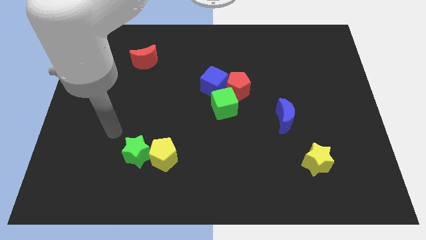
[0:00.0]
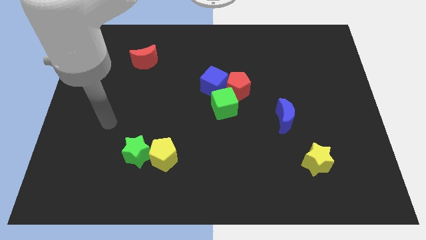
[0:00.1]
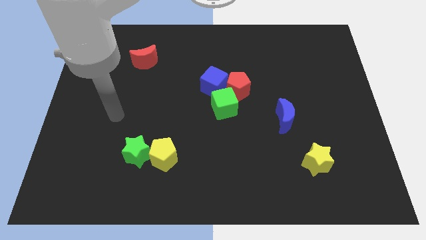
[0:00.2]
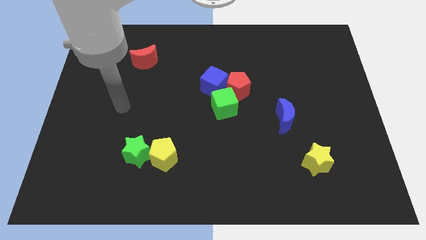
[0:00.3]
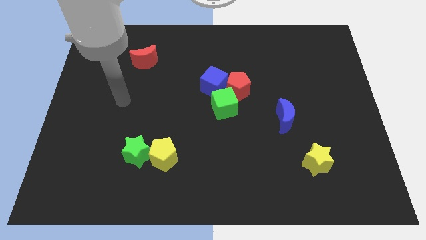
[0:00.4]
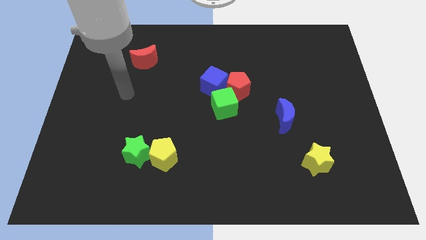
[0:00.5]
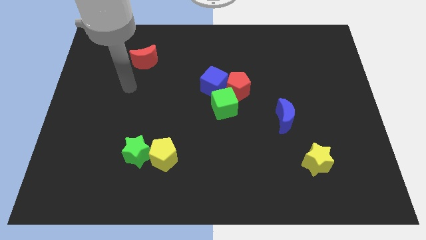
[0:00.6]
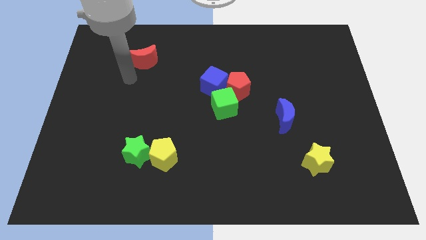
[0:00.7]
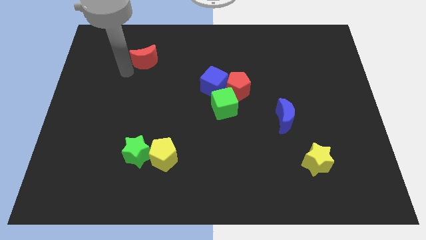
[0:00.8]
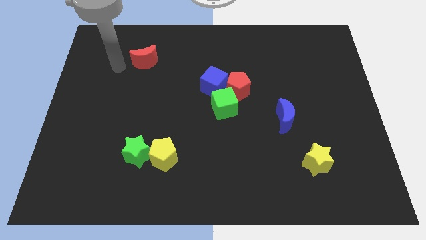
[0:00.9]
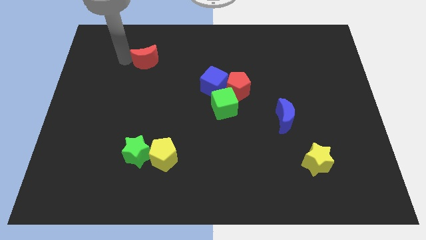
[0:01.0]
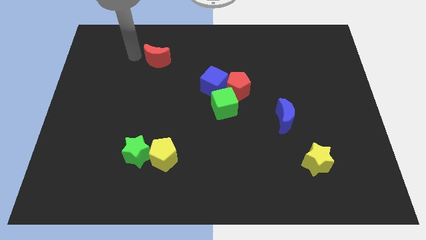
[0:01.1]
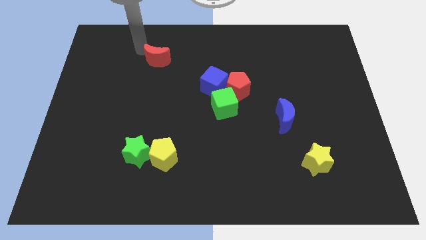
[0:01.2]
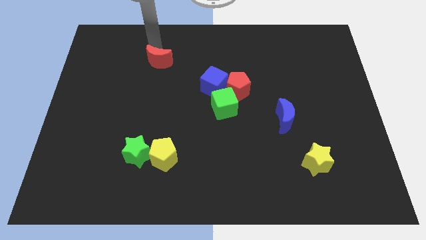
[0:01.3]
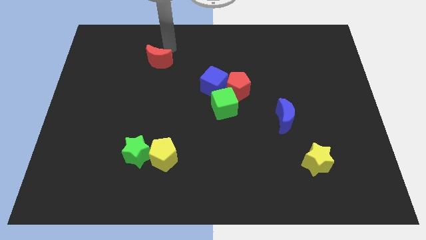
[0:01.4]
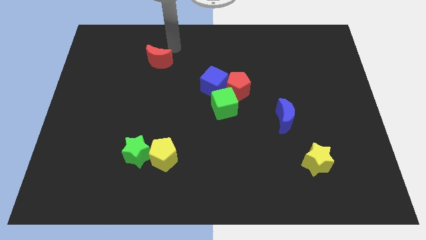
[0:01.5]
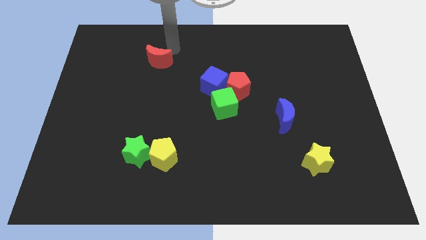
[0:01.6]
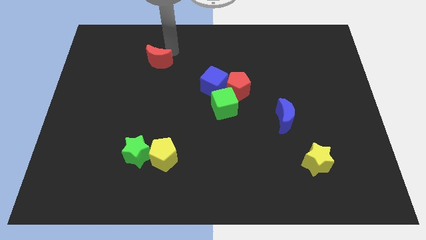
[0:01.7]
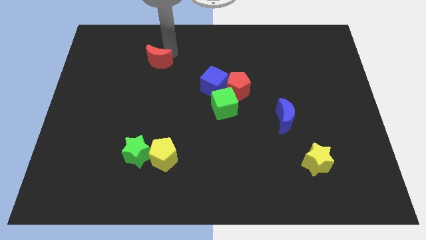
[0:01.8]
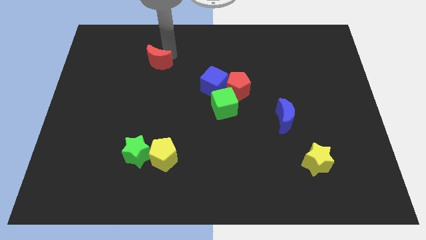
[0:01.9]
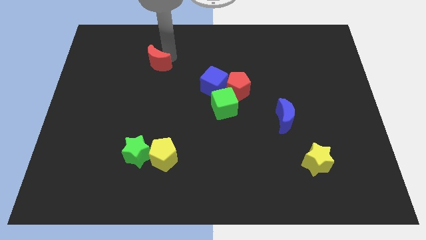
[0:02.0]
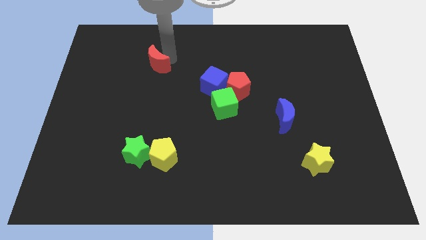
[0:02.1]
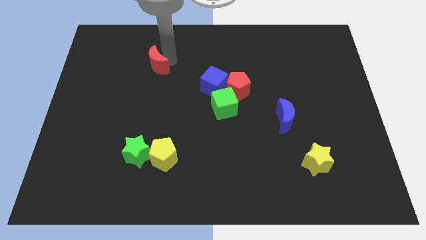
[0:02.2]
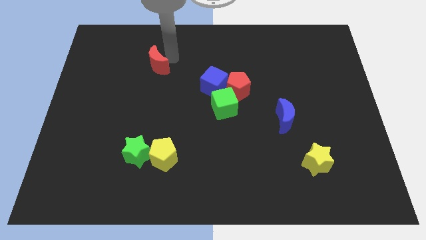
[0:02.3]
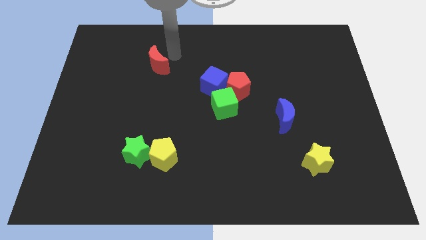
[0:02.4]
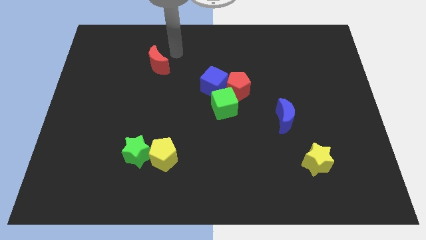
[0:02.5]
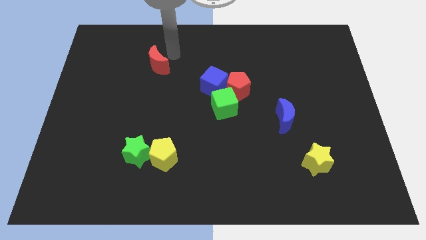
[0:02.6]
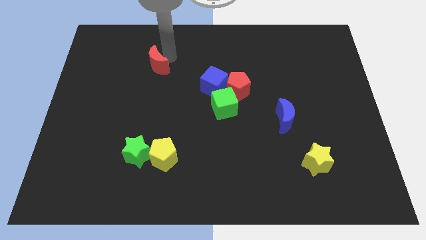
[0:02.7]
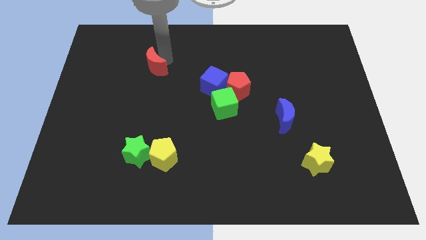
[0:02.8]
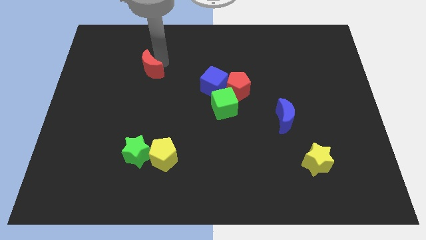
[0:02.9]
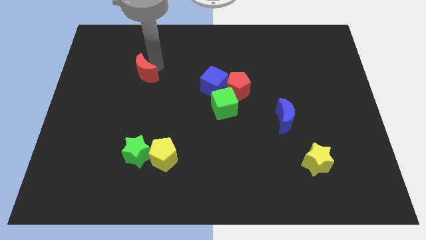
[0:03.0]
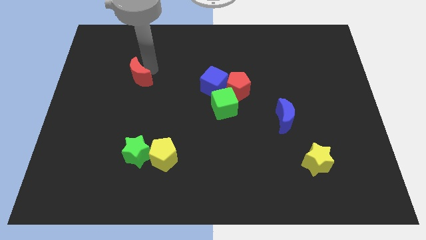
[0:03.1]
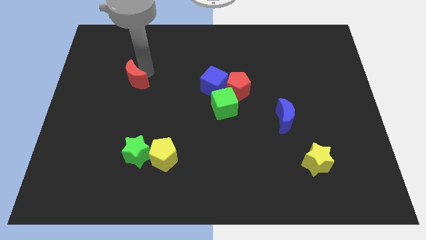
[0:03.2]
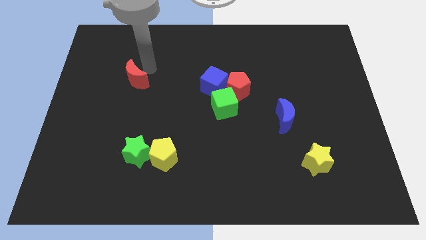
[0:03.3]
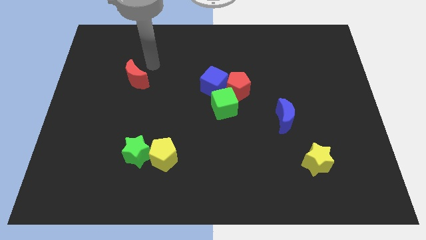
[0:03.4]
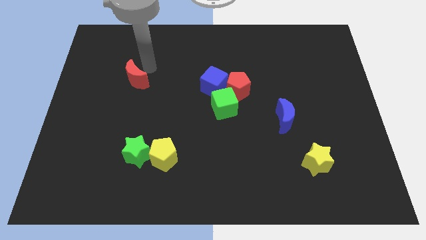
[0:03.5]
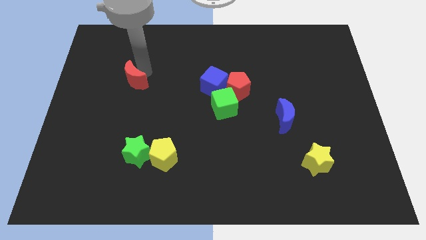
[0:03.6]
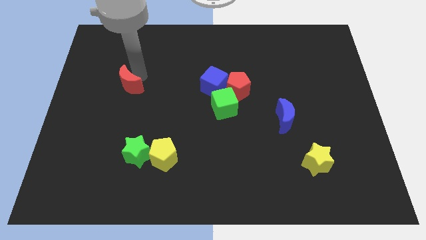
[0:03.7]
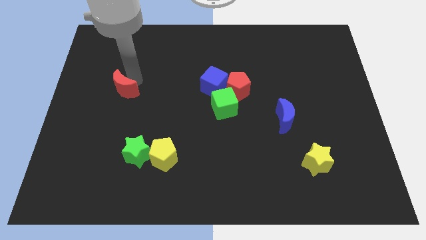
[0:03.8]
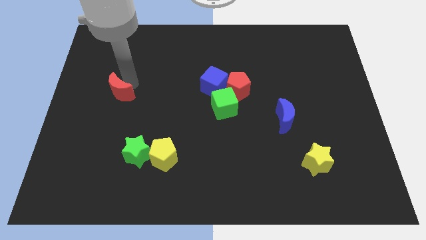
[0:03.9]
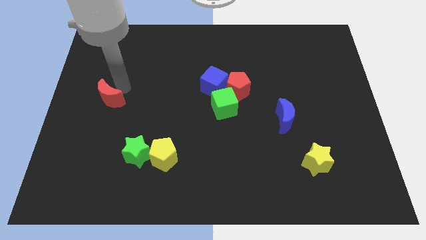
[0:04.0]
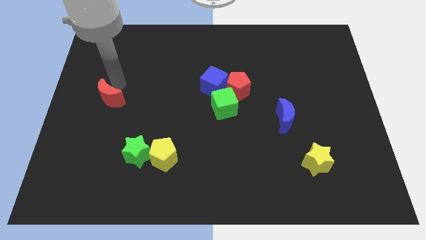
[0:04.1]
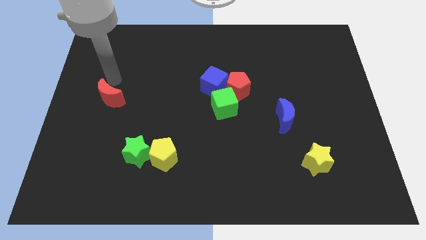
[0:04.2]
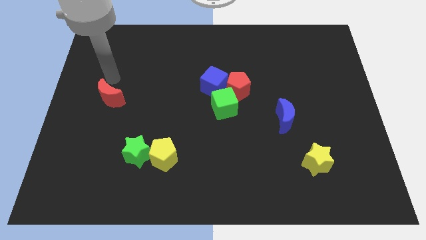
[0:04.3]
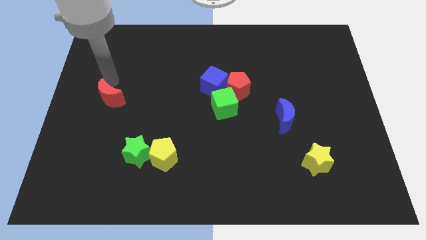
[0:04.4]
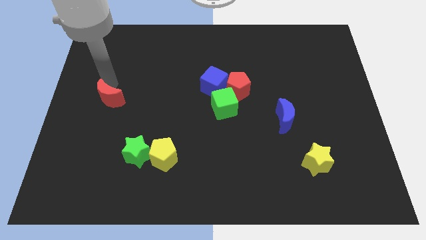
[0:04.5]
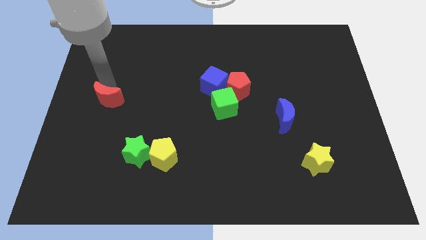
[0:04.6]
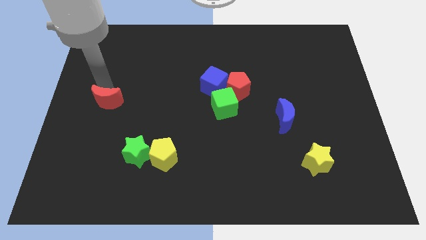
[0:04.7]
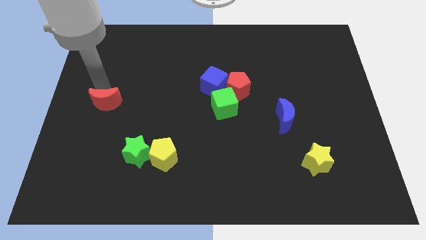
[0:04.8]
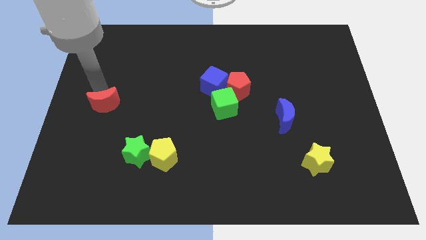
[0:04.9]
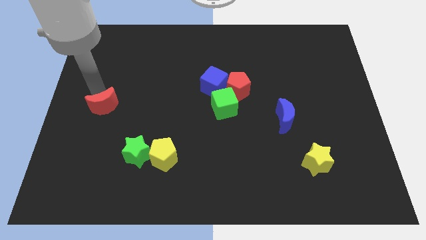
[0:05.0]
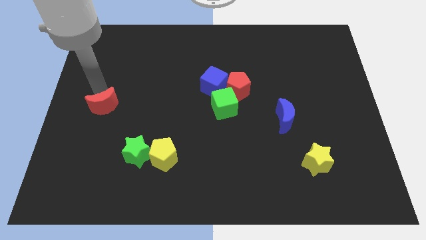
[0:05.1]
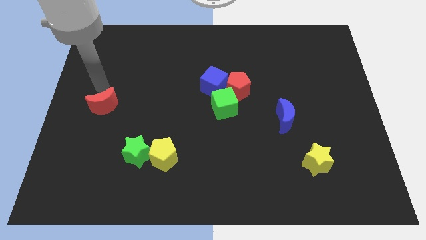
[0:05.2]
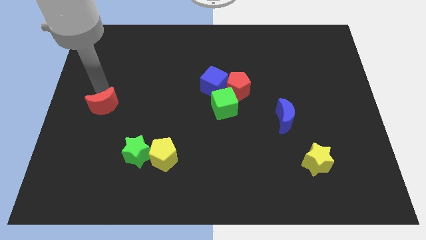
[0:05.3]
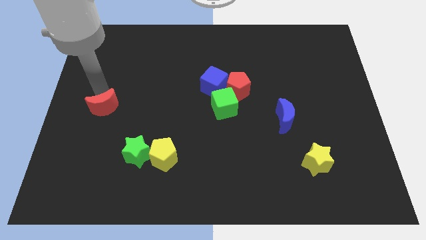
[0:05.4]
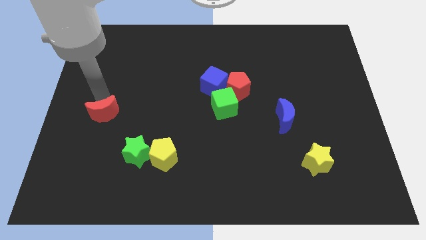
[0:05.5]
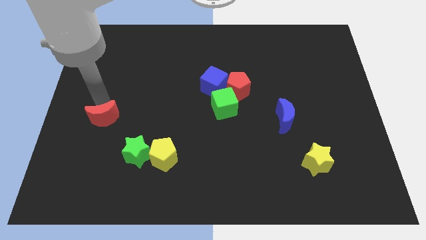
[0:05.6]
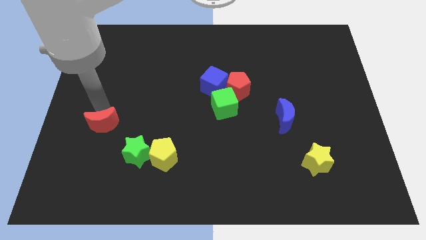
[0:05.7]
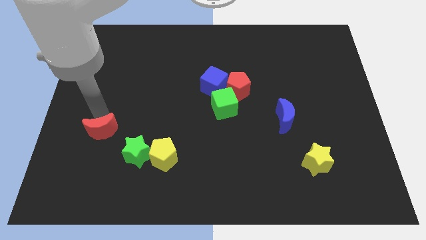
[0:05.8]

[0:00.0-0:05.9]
slide the red moon downwards

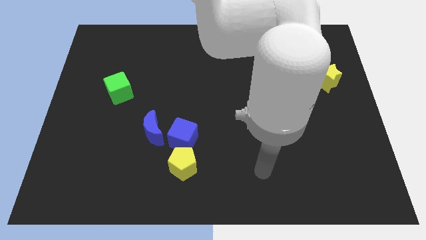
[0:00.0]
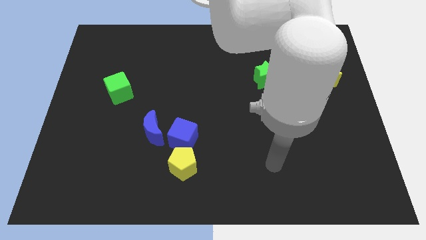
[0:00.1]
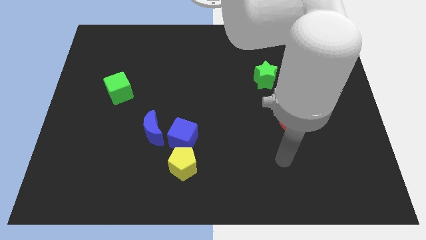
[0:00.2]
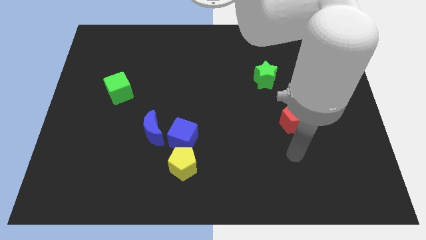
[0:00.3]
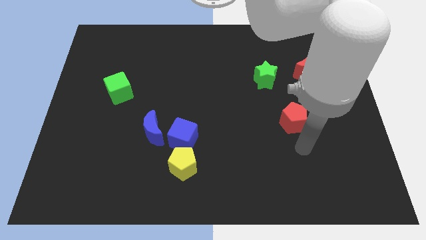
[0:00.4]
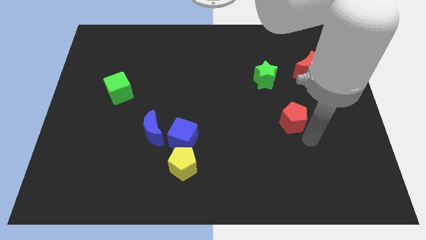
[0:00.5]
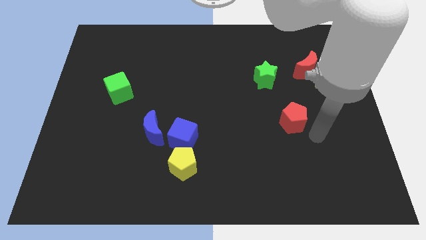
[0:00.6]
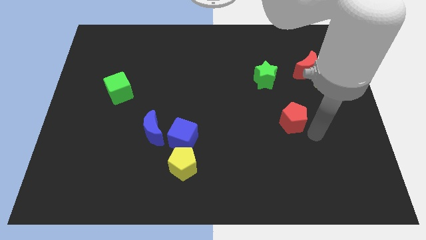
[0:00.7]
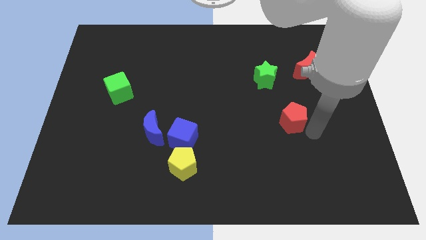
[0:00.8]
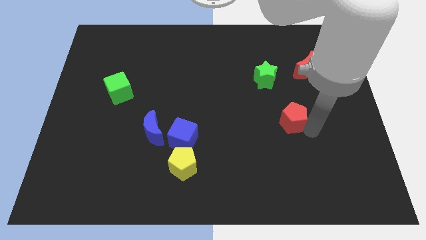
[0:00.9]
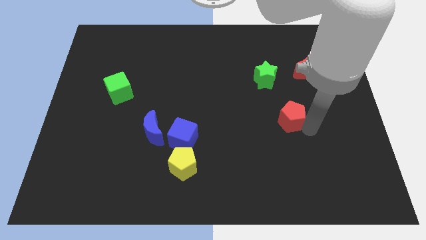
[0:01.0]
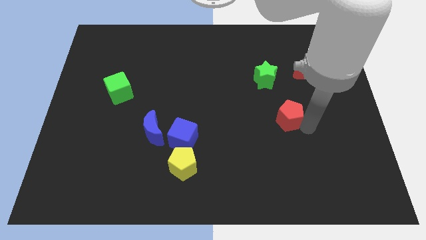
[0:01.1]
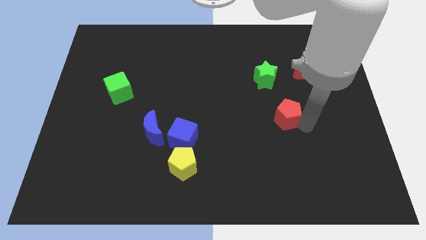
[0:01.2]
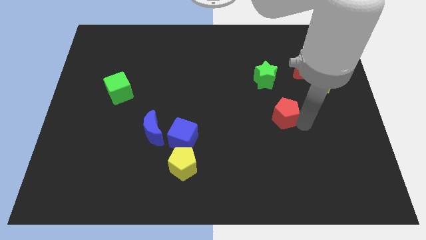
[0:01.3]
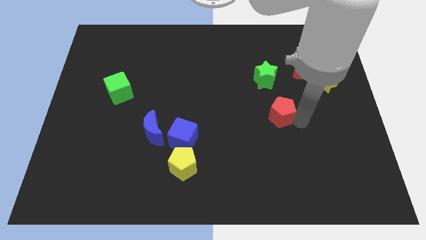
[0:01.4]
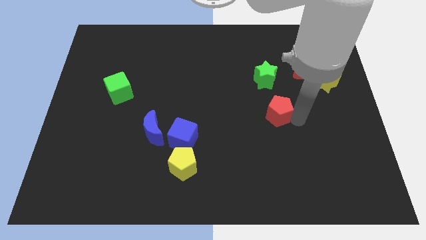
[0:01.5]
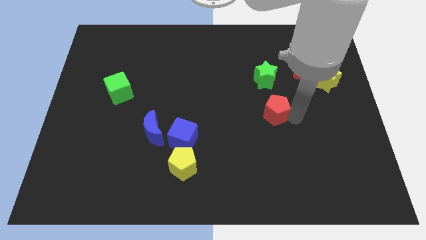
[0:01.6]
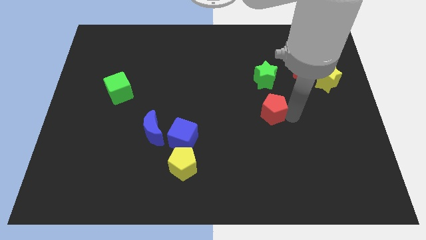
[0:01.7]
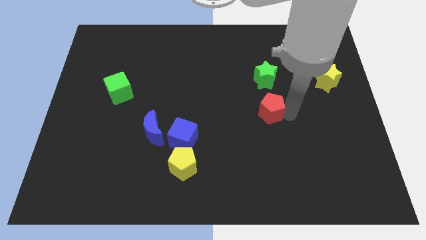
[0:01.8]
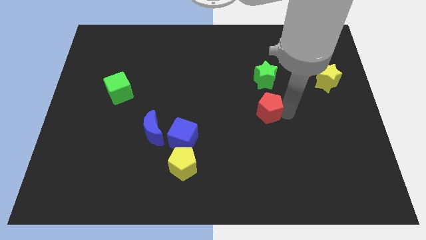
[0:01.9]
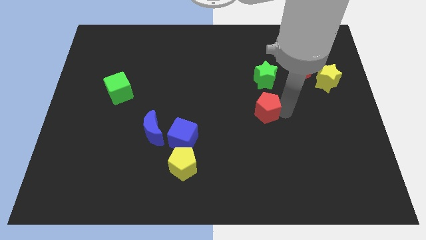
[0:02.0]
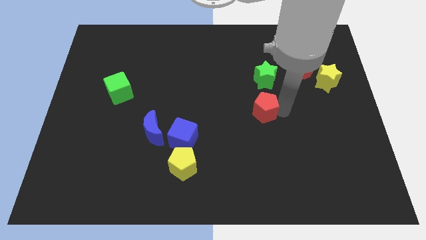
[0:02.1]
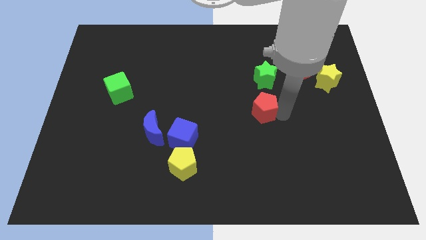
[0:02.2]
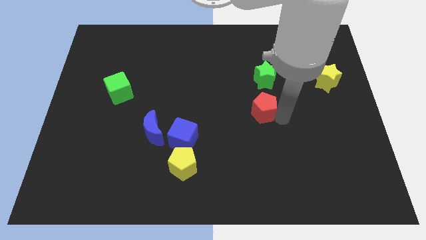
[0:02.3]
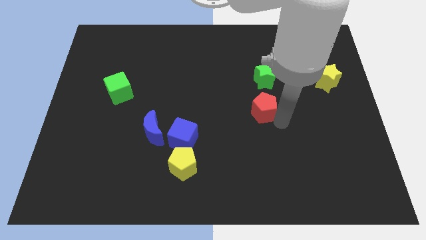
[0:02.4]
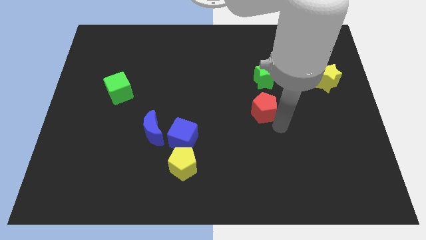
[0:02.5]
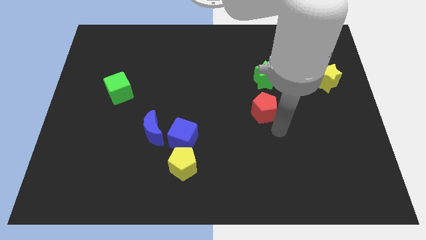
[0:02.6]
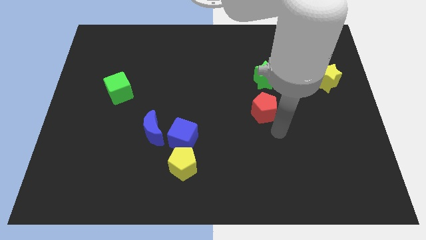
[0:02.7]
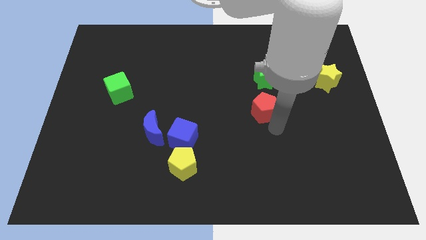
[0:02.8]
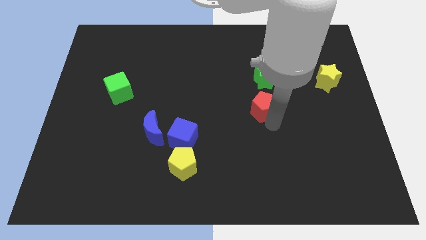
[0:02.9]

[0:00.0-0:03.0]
slide the red pentagon upwards and to the left diagonally a bit
